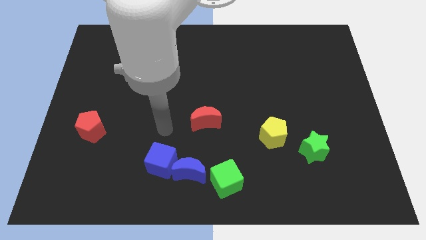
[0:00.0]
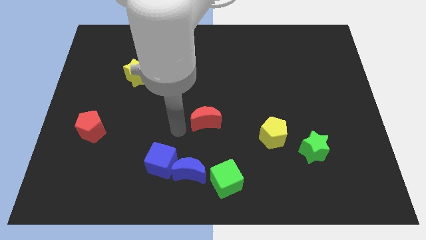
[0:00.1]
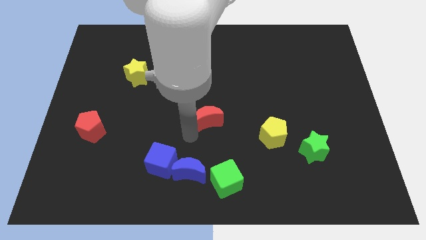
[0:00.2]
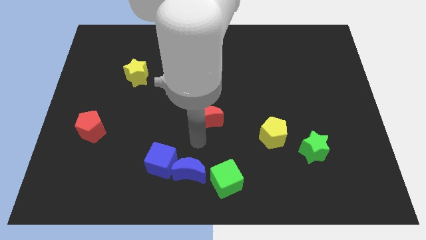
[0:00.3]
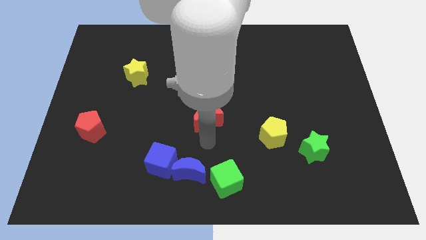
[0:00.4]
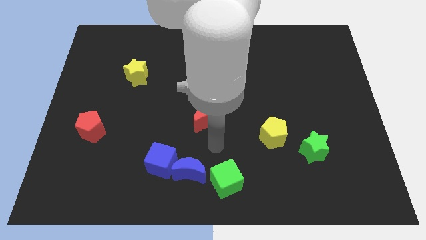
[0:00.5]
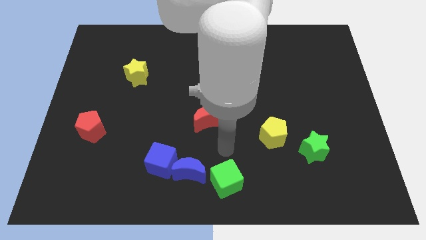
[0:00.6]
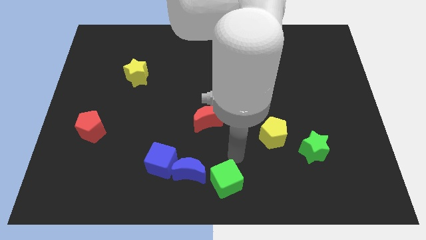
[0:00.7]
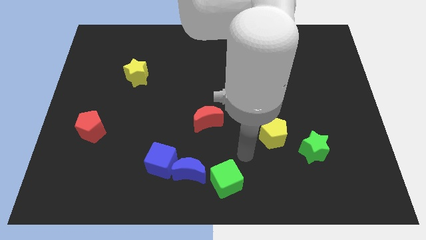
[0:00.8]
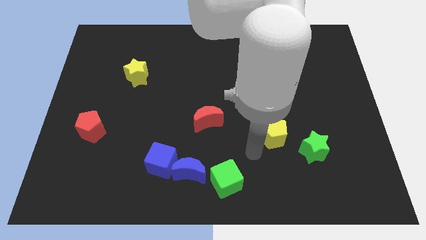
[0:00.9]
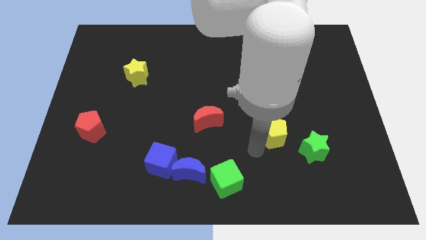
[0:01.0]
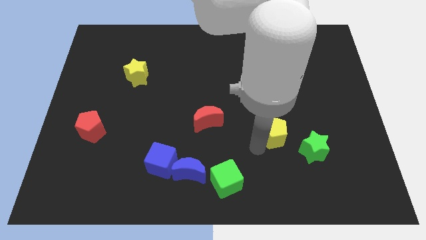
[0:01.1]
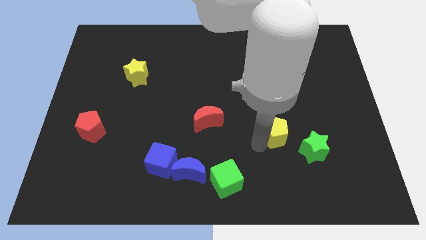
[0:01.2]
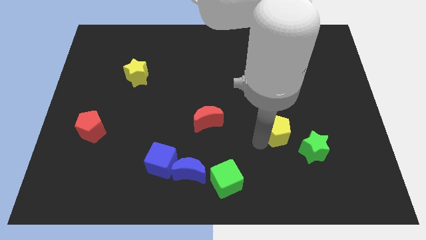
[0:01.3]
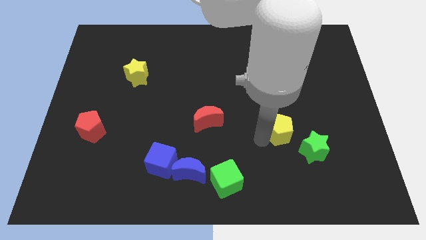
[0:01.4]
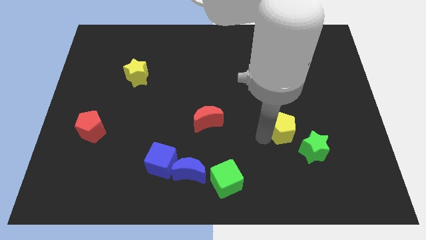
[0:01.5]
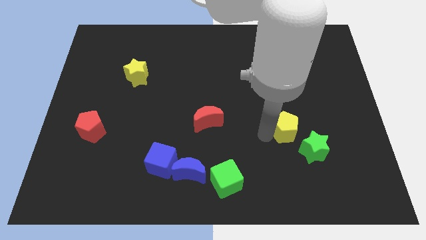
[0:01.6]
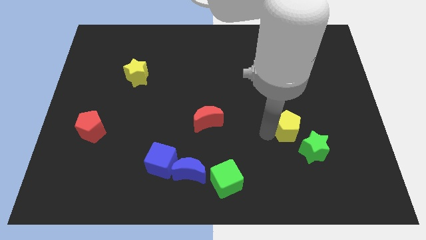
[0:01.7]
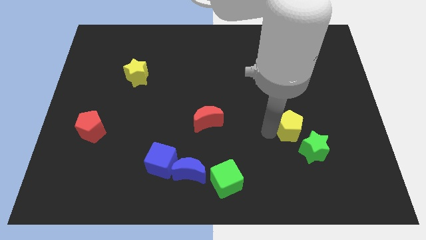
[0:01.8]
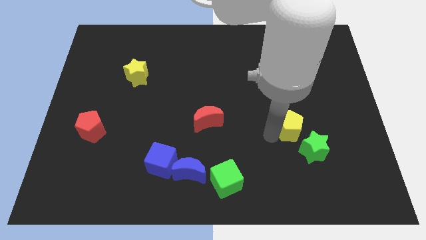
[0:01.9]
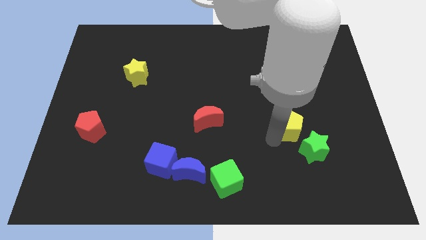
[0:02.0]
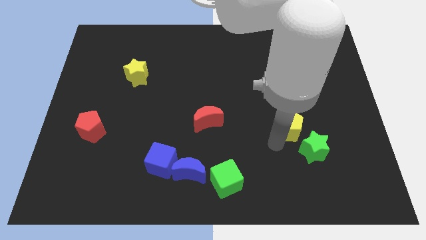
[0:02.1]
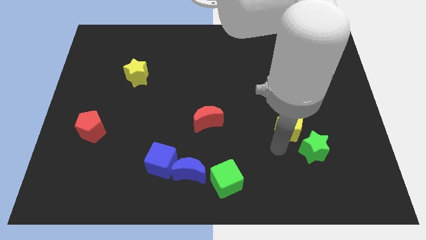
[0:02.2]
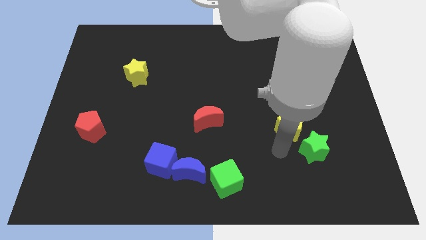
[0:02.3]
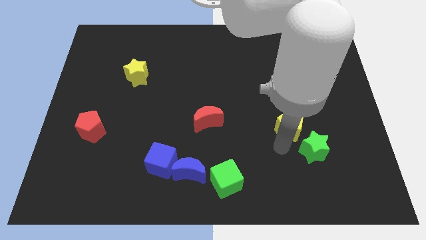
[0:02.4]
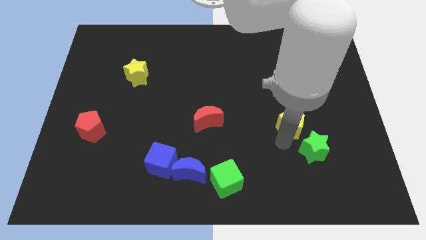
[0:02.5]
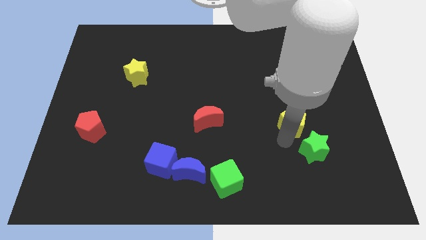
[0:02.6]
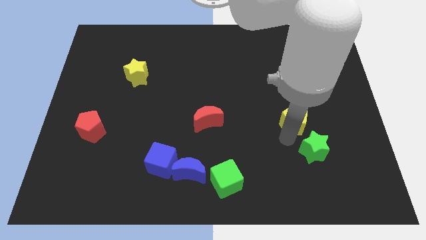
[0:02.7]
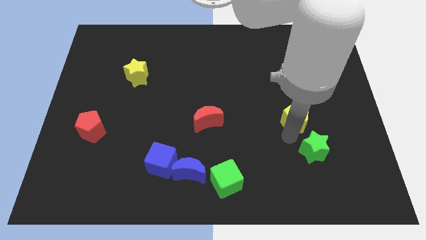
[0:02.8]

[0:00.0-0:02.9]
move the yellow pentagon slightly upwards and to the right diagonally

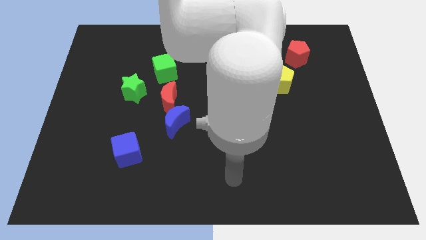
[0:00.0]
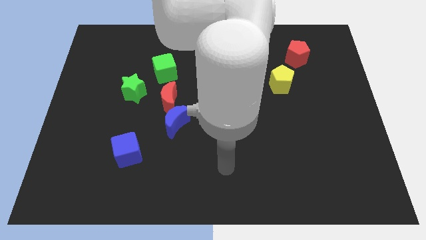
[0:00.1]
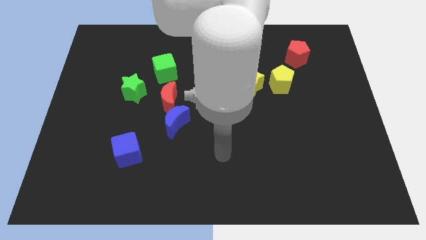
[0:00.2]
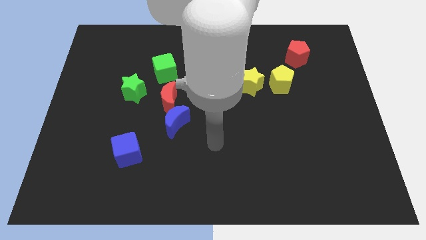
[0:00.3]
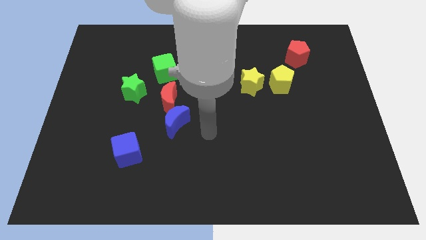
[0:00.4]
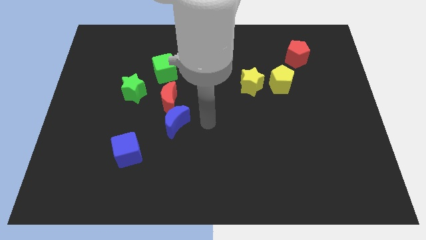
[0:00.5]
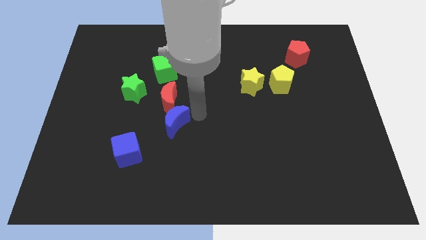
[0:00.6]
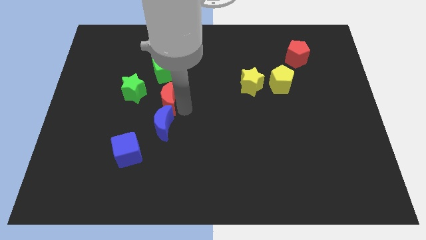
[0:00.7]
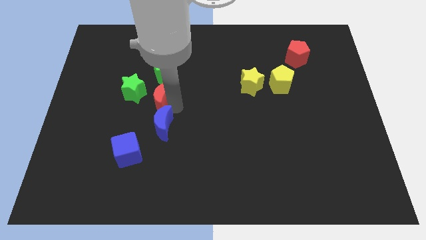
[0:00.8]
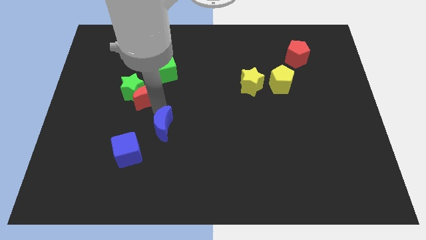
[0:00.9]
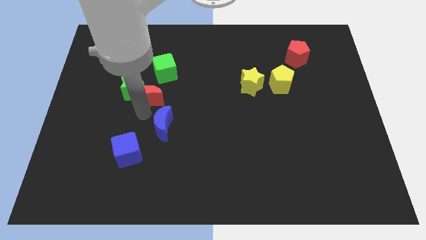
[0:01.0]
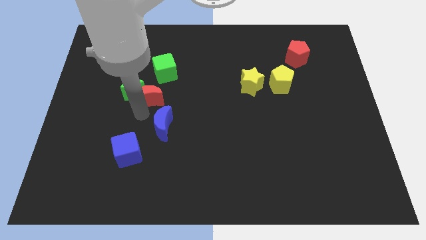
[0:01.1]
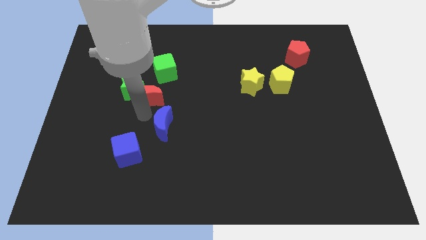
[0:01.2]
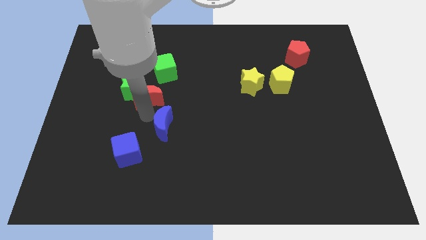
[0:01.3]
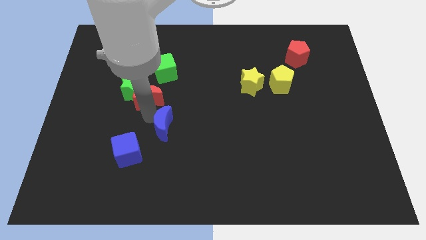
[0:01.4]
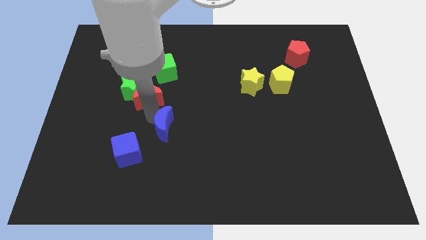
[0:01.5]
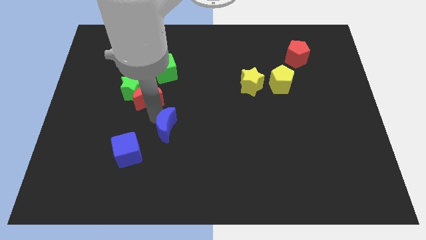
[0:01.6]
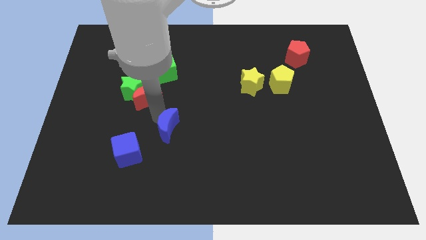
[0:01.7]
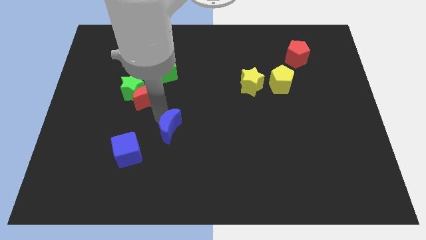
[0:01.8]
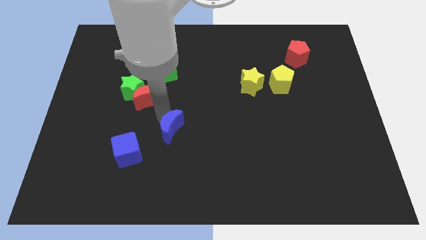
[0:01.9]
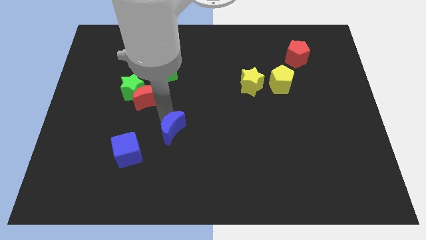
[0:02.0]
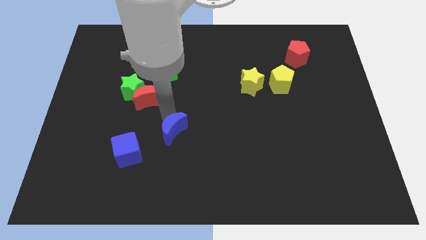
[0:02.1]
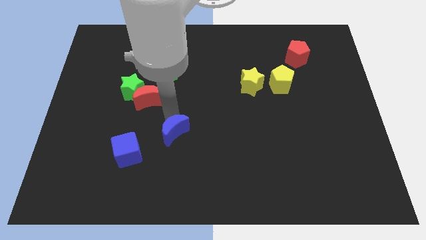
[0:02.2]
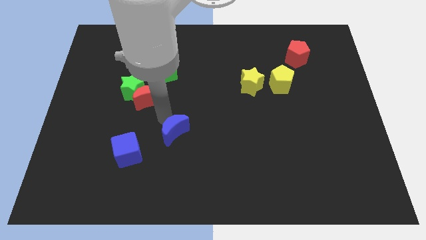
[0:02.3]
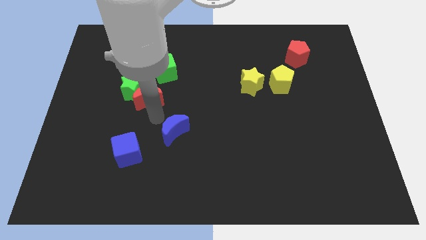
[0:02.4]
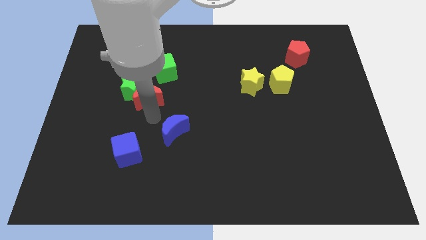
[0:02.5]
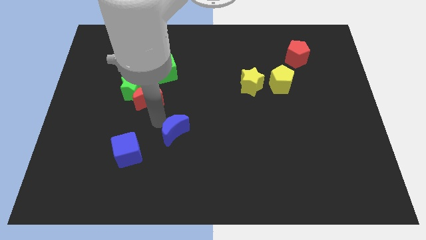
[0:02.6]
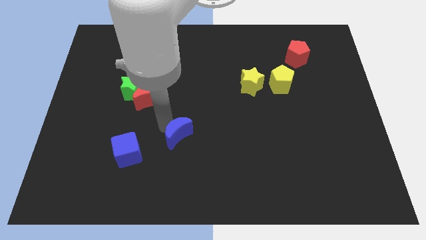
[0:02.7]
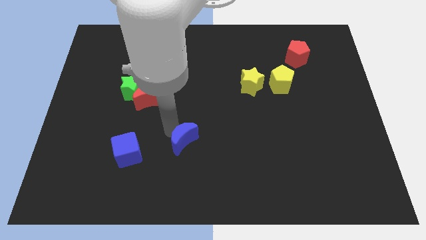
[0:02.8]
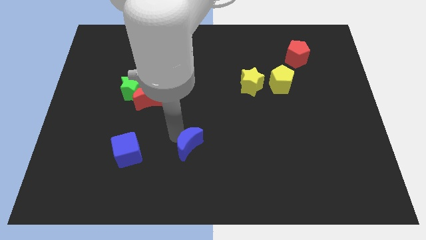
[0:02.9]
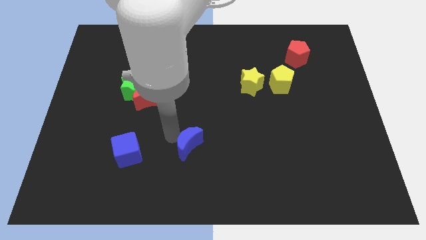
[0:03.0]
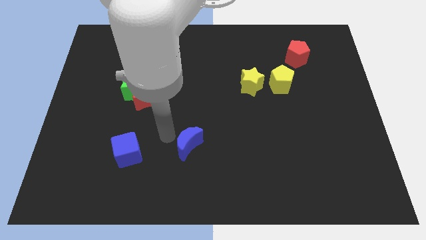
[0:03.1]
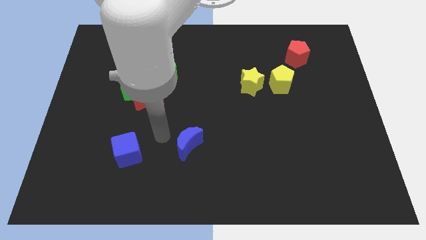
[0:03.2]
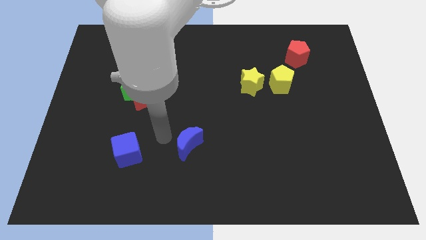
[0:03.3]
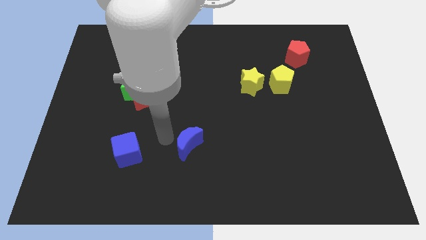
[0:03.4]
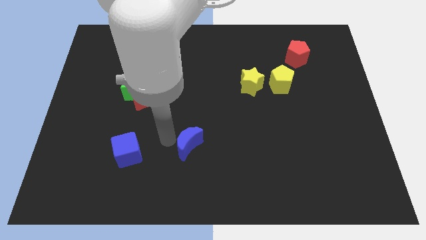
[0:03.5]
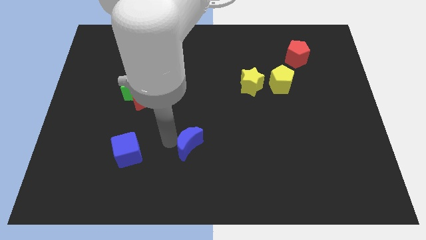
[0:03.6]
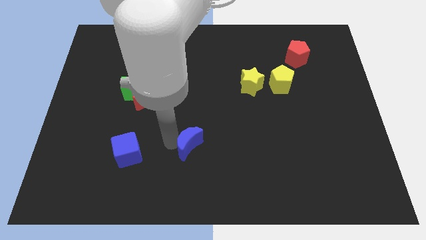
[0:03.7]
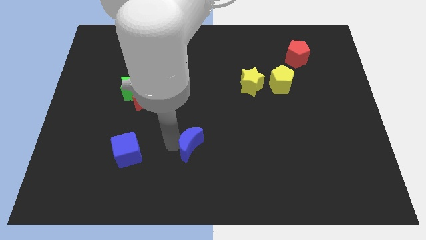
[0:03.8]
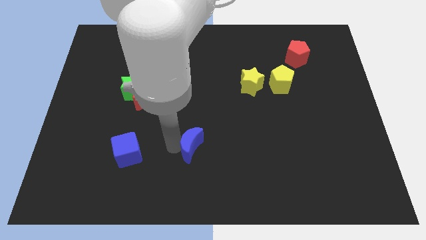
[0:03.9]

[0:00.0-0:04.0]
push the blue moon a bit downwards and to the right

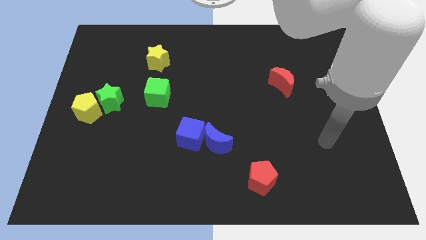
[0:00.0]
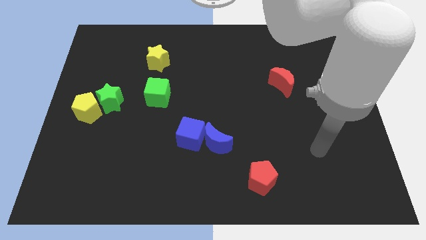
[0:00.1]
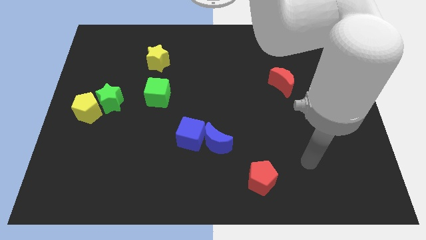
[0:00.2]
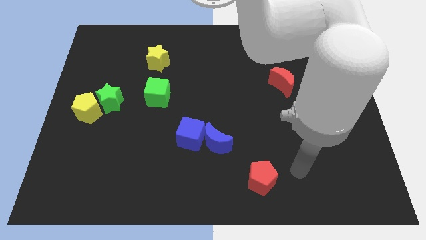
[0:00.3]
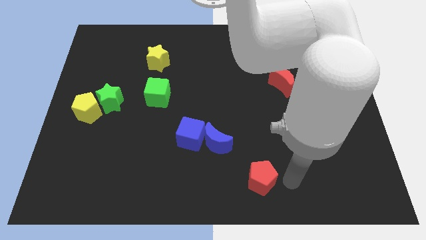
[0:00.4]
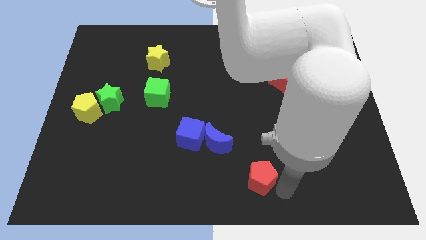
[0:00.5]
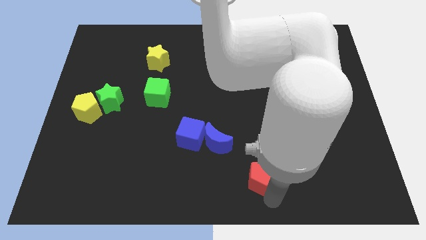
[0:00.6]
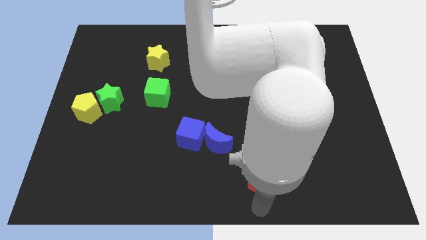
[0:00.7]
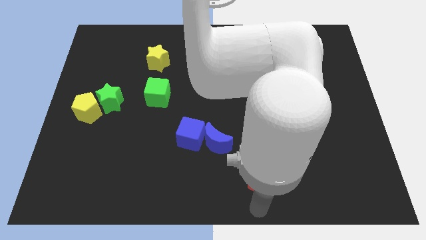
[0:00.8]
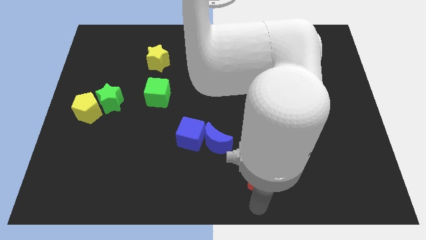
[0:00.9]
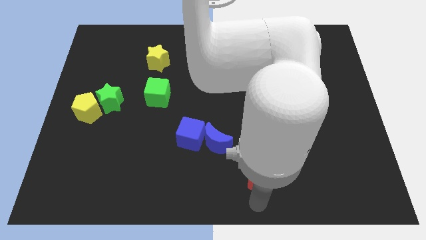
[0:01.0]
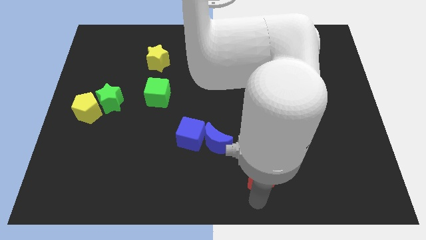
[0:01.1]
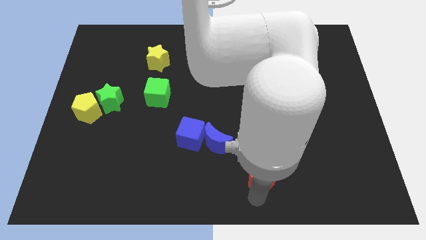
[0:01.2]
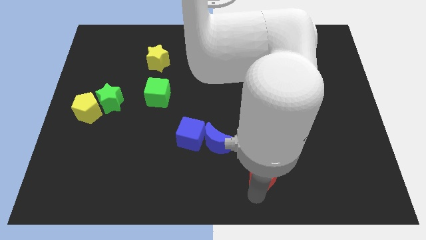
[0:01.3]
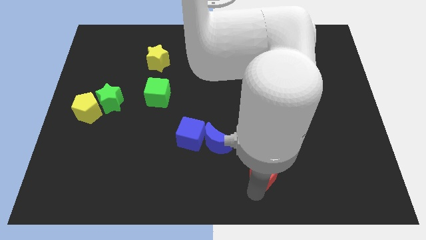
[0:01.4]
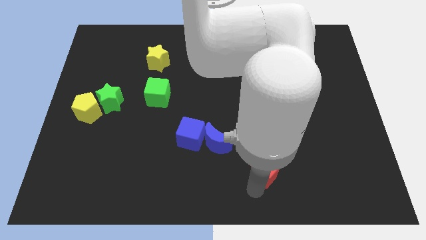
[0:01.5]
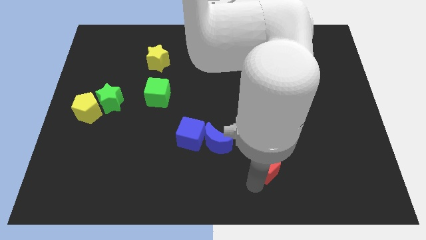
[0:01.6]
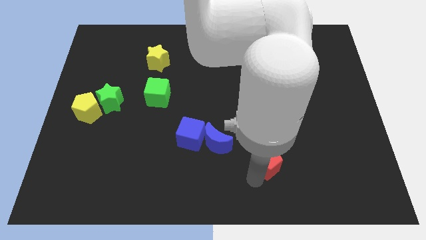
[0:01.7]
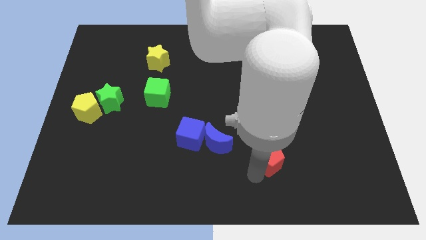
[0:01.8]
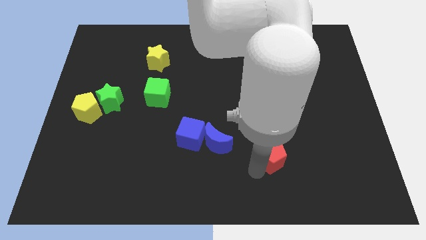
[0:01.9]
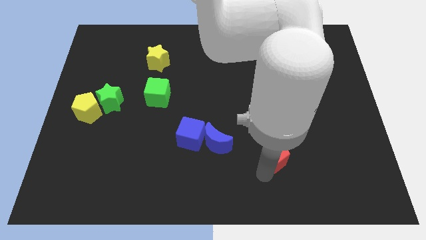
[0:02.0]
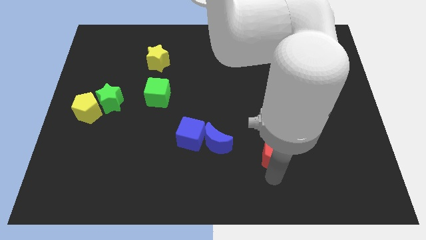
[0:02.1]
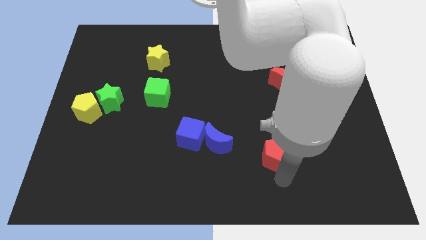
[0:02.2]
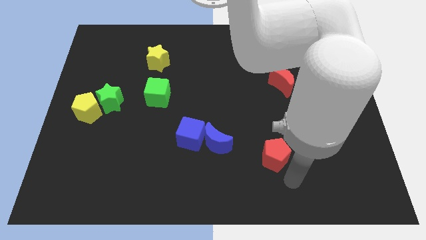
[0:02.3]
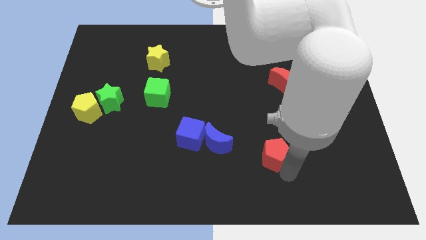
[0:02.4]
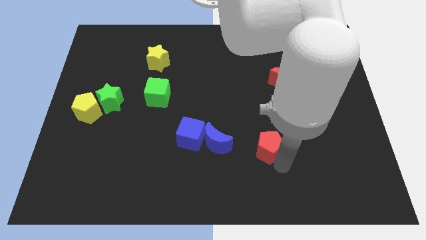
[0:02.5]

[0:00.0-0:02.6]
move the red pentagon a bit upwards
